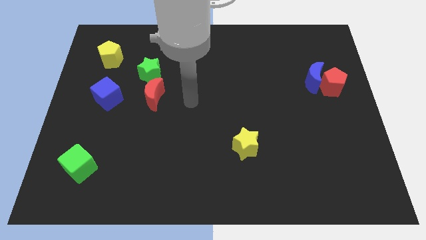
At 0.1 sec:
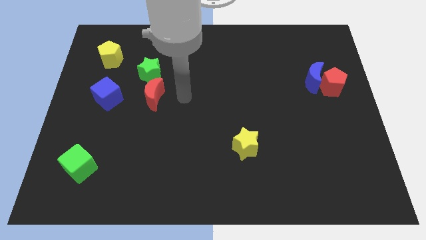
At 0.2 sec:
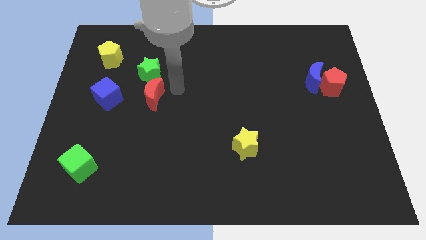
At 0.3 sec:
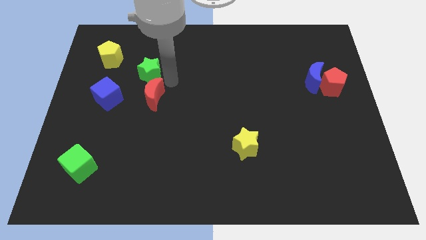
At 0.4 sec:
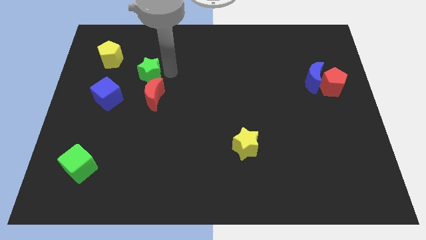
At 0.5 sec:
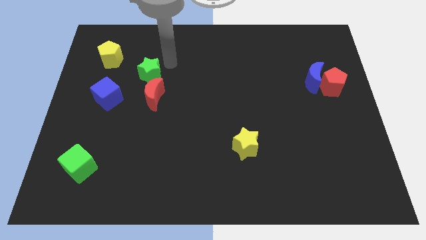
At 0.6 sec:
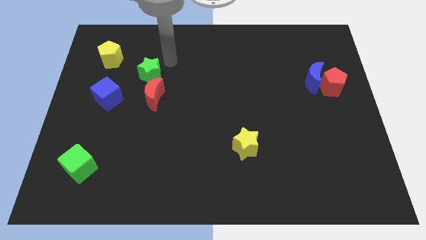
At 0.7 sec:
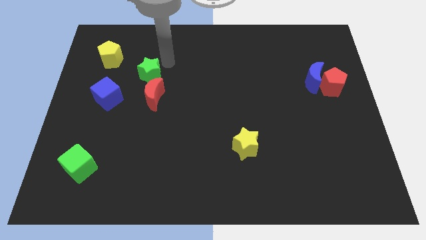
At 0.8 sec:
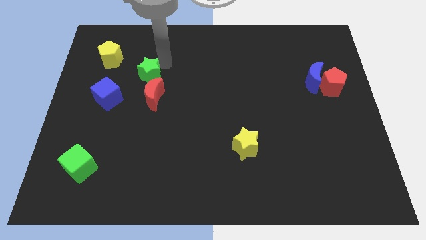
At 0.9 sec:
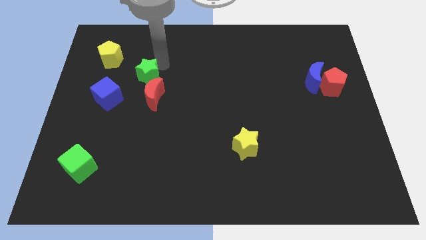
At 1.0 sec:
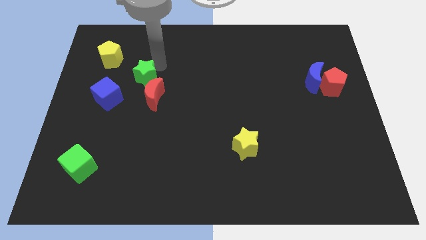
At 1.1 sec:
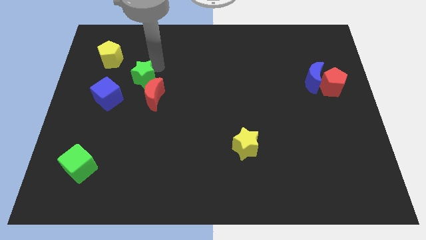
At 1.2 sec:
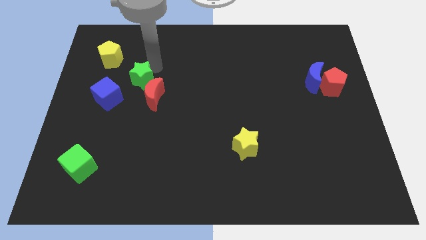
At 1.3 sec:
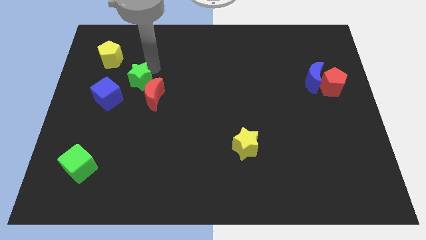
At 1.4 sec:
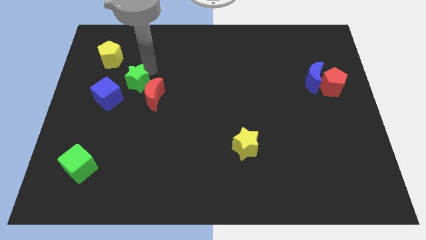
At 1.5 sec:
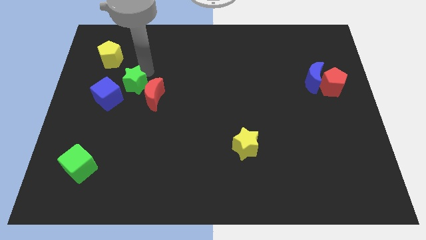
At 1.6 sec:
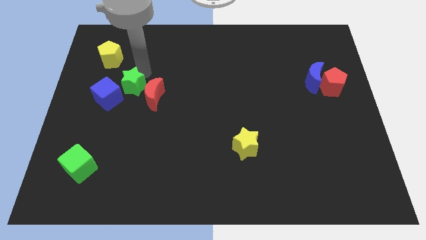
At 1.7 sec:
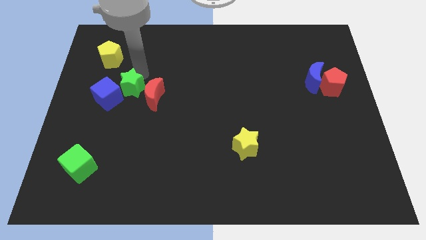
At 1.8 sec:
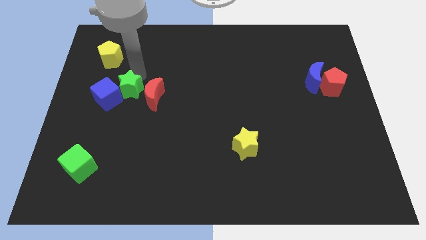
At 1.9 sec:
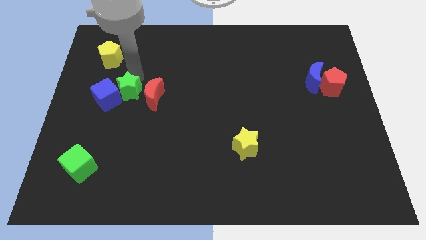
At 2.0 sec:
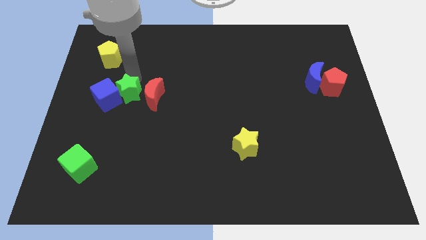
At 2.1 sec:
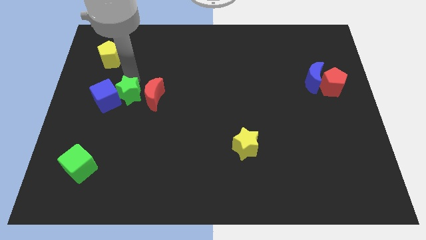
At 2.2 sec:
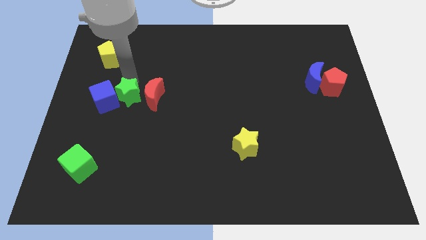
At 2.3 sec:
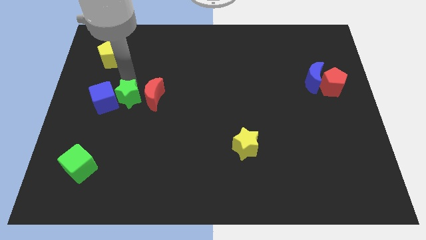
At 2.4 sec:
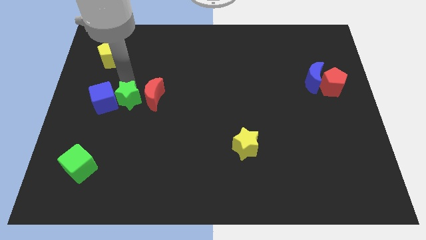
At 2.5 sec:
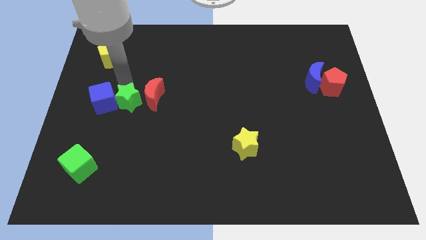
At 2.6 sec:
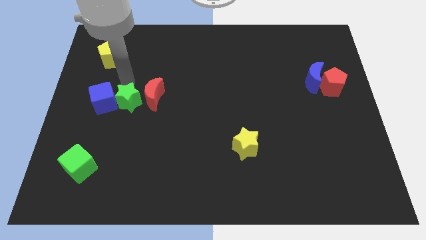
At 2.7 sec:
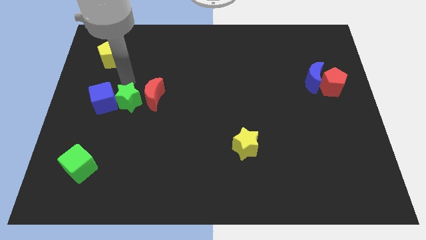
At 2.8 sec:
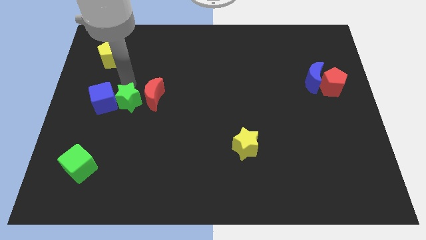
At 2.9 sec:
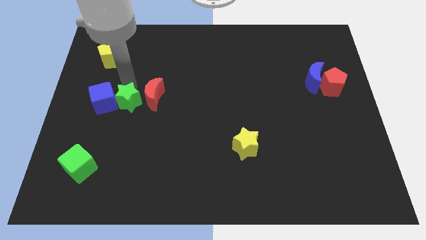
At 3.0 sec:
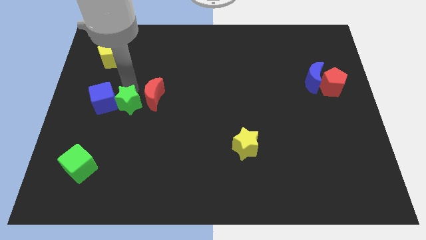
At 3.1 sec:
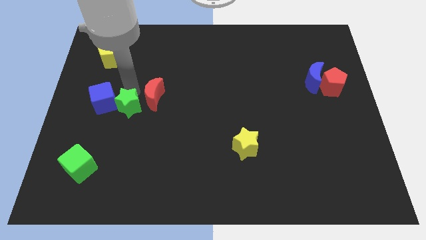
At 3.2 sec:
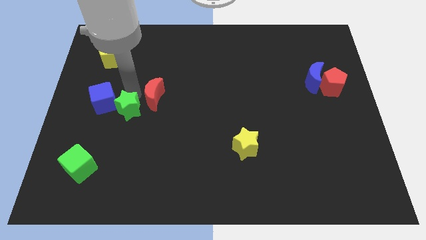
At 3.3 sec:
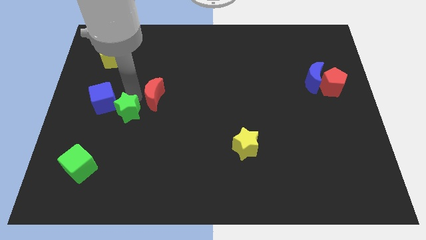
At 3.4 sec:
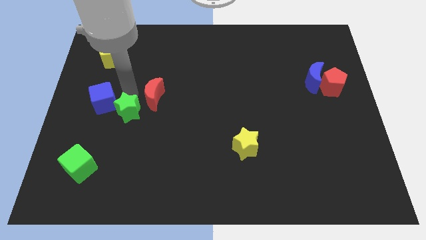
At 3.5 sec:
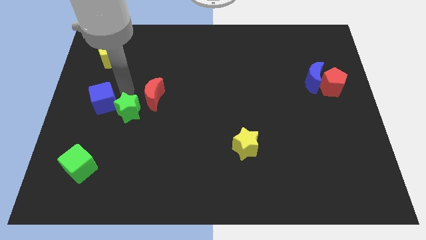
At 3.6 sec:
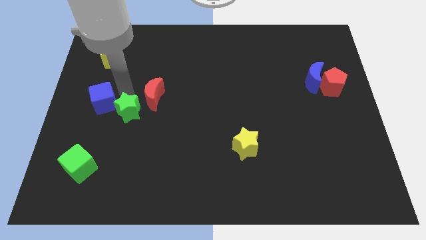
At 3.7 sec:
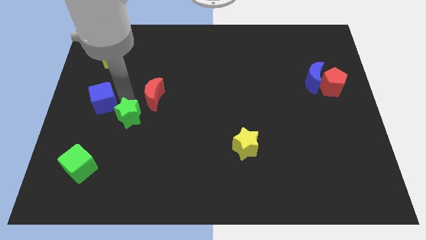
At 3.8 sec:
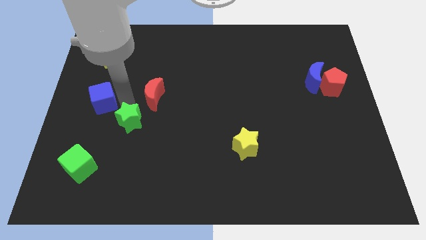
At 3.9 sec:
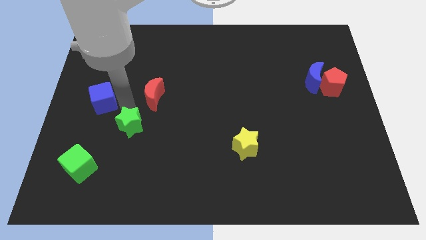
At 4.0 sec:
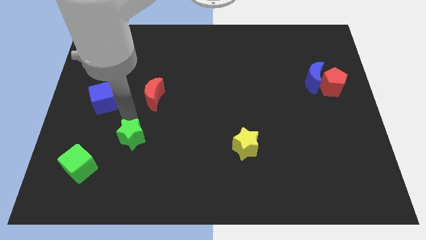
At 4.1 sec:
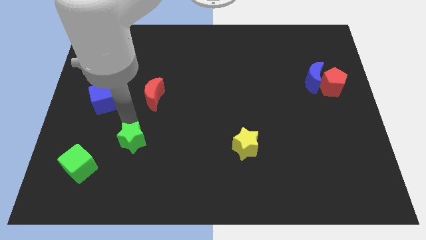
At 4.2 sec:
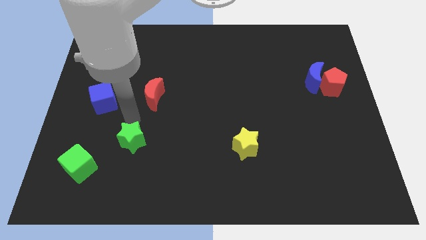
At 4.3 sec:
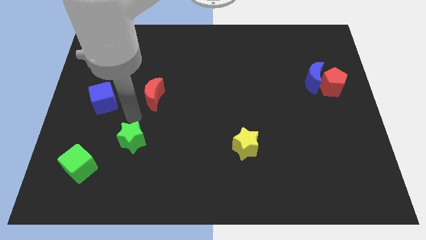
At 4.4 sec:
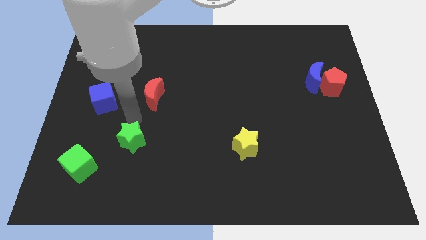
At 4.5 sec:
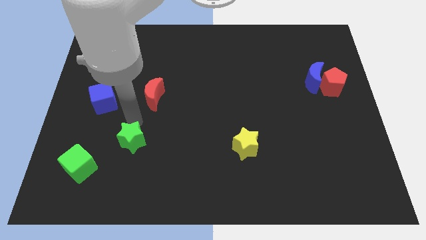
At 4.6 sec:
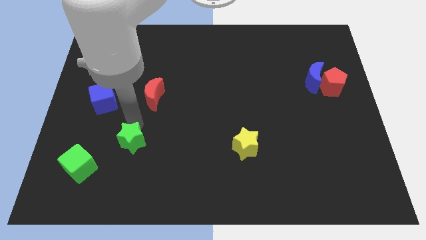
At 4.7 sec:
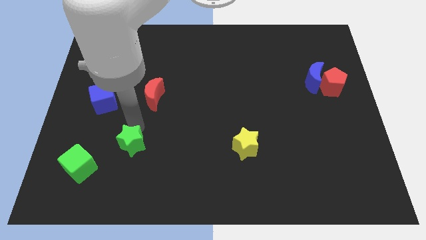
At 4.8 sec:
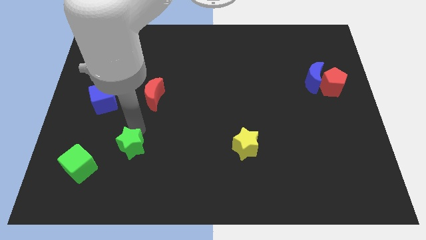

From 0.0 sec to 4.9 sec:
move the green star to the right side of the green cube

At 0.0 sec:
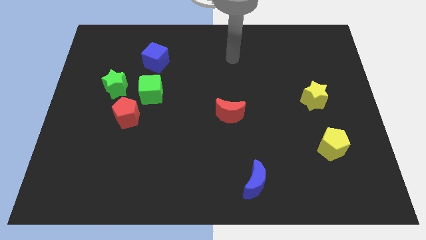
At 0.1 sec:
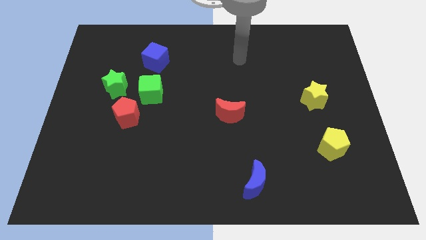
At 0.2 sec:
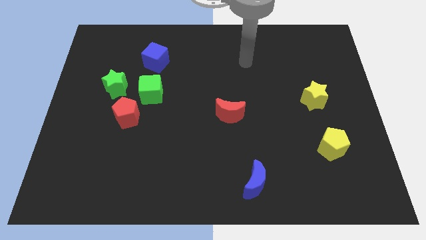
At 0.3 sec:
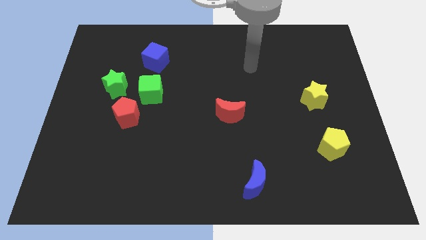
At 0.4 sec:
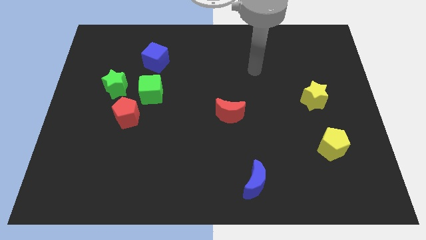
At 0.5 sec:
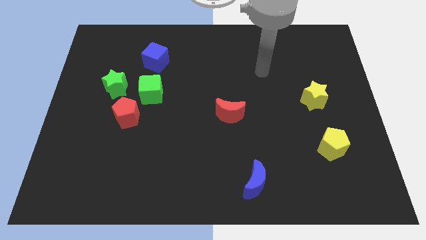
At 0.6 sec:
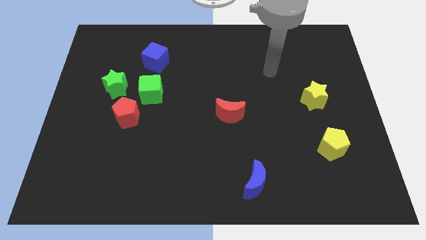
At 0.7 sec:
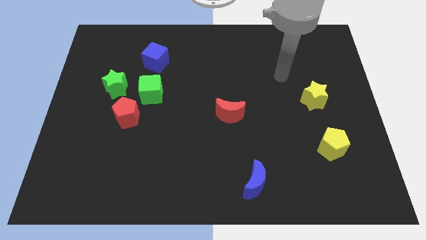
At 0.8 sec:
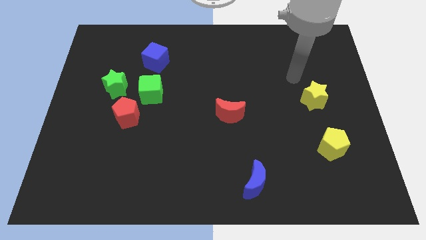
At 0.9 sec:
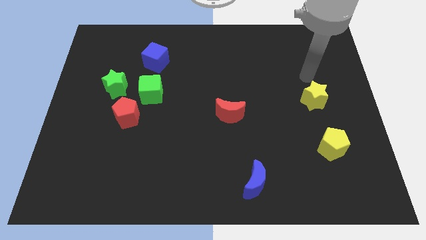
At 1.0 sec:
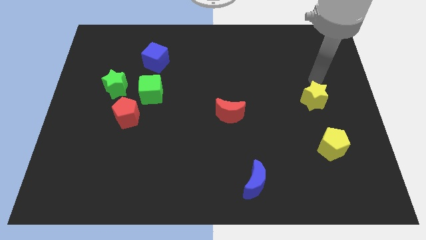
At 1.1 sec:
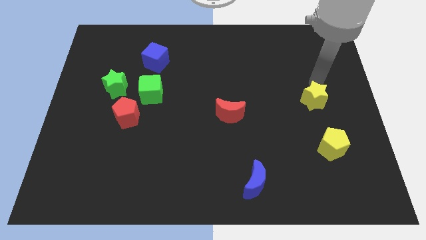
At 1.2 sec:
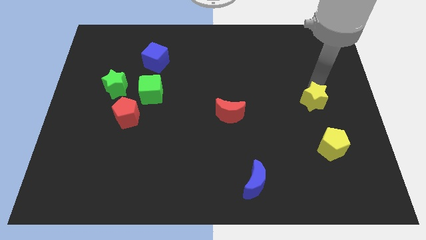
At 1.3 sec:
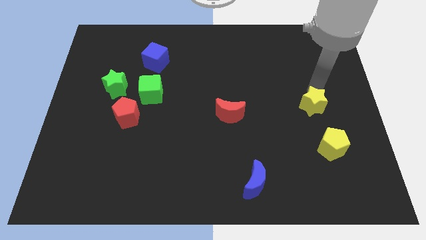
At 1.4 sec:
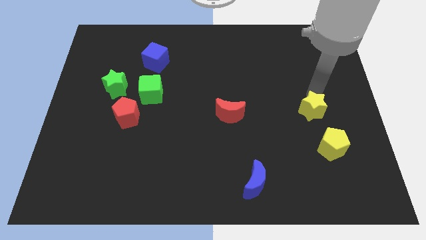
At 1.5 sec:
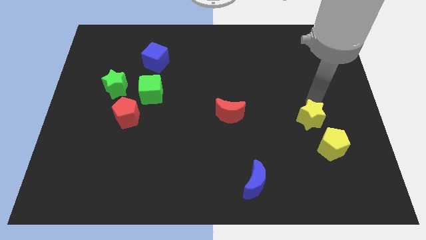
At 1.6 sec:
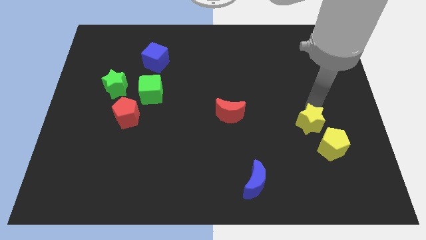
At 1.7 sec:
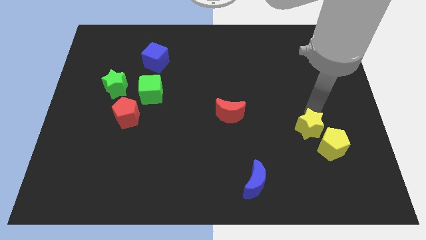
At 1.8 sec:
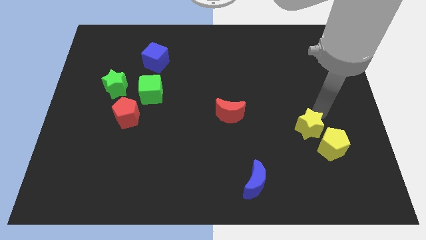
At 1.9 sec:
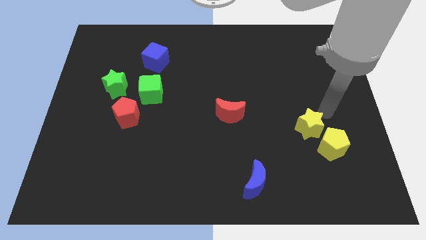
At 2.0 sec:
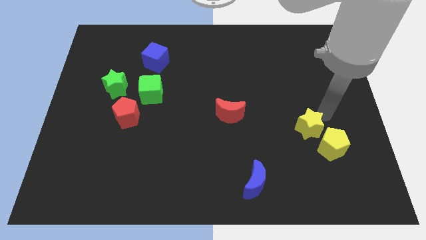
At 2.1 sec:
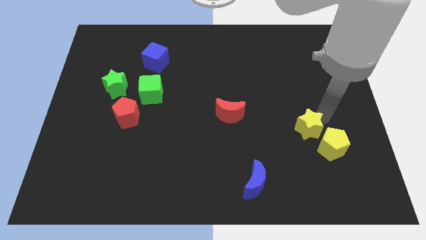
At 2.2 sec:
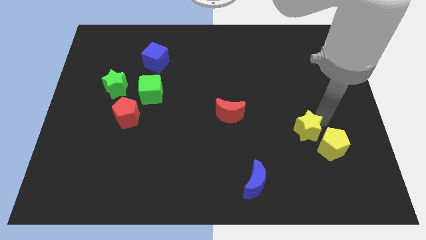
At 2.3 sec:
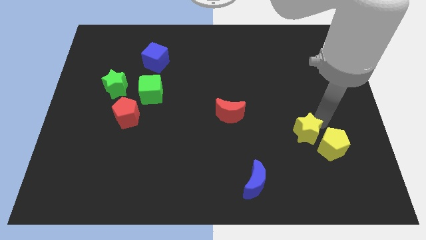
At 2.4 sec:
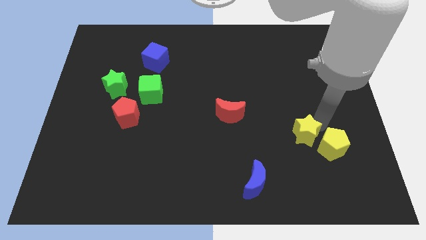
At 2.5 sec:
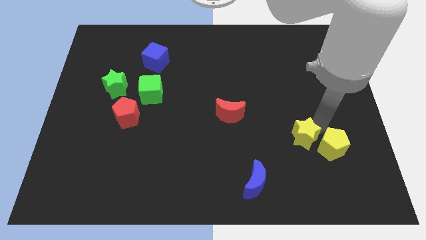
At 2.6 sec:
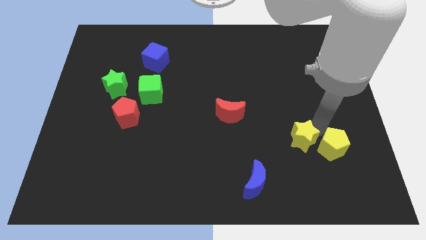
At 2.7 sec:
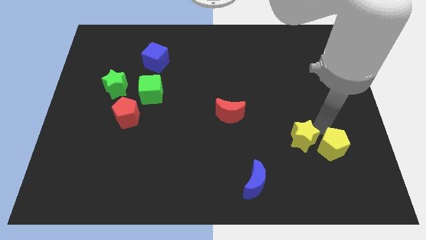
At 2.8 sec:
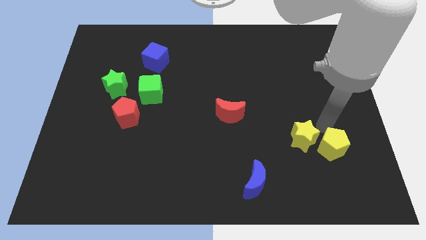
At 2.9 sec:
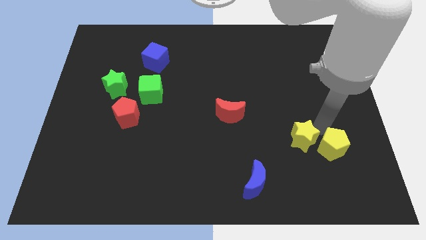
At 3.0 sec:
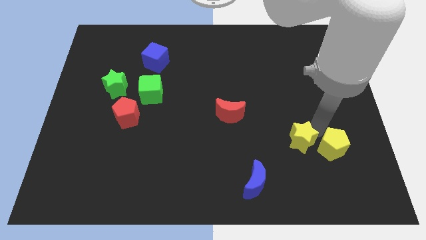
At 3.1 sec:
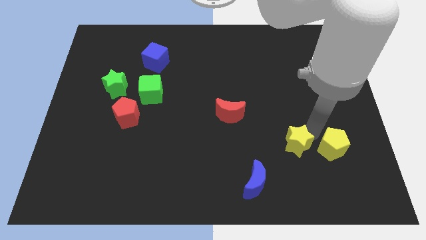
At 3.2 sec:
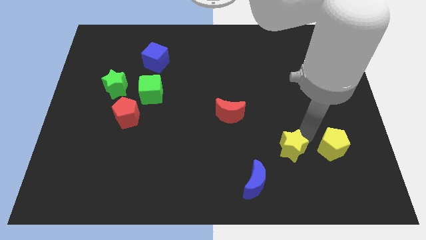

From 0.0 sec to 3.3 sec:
put the yellow star diagonally up and to the right of the blue moon
